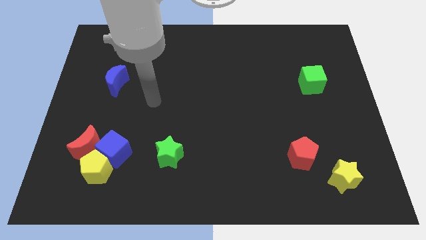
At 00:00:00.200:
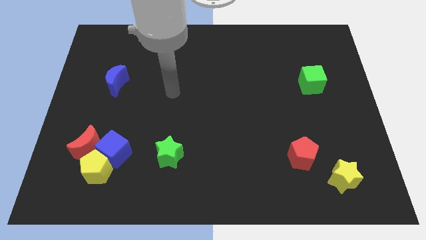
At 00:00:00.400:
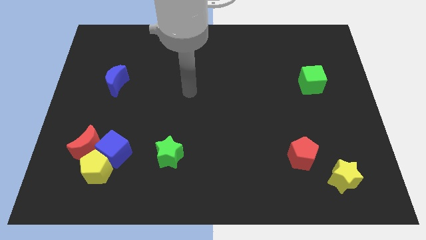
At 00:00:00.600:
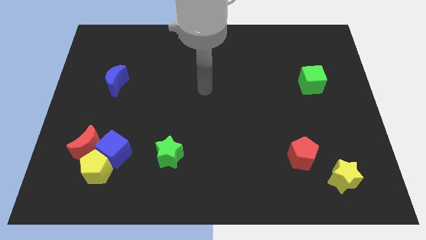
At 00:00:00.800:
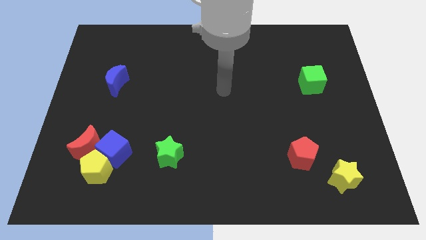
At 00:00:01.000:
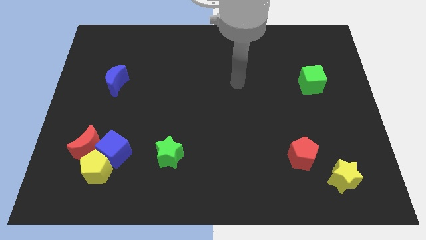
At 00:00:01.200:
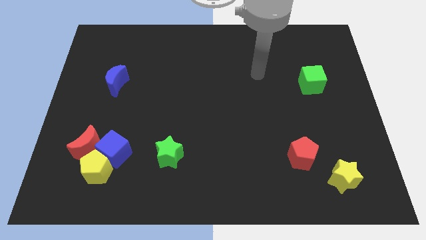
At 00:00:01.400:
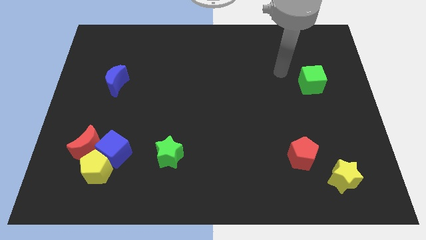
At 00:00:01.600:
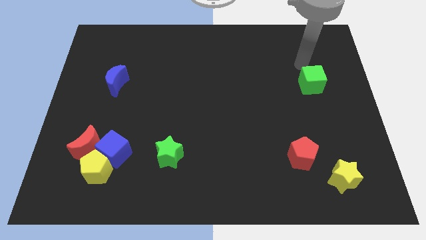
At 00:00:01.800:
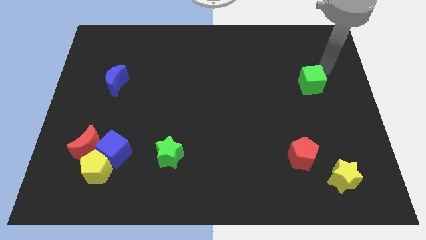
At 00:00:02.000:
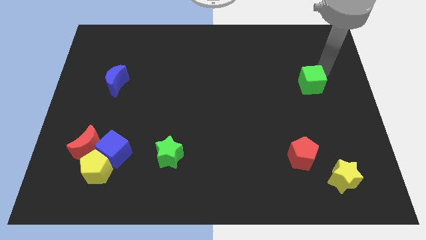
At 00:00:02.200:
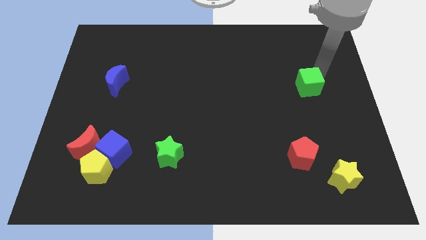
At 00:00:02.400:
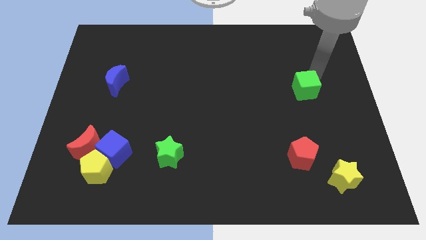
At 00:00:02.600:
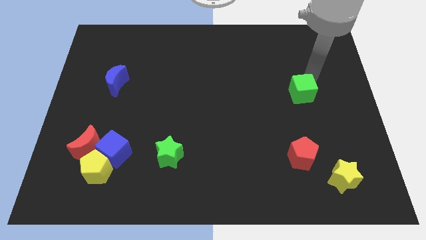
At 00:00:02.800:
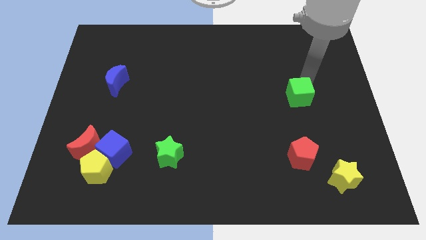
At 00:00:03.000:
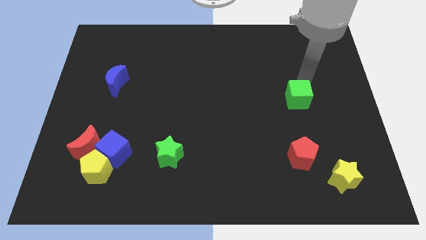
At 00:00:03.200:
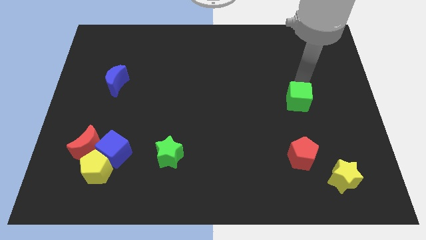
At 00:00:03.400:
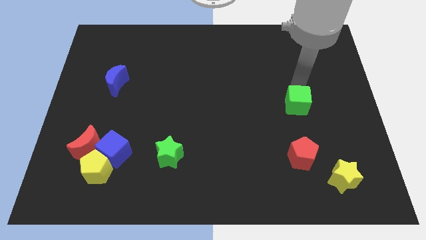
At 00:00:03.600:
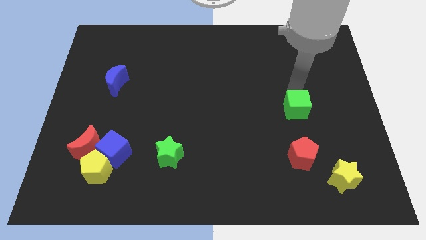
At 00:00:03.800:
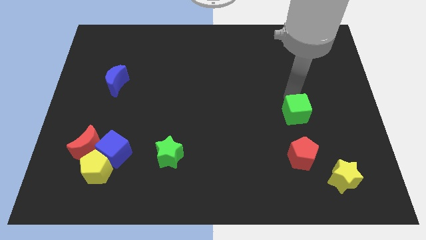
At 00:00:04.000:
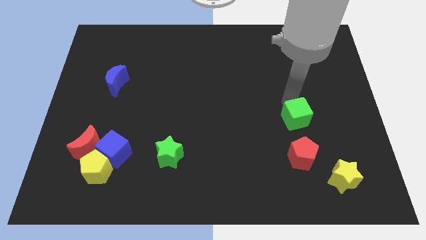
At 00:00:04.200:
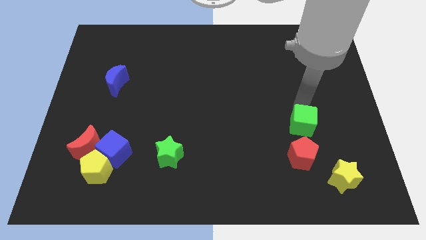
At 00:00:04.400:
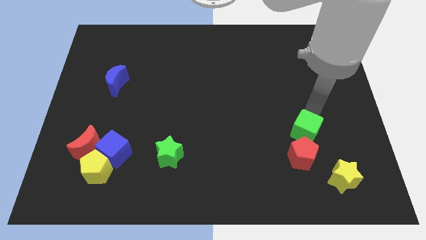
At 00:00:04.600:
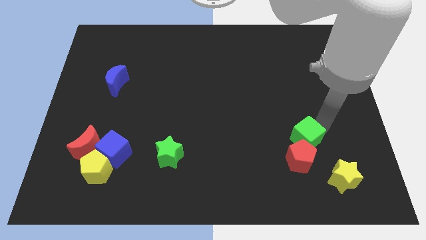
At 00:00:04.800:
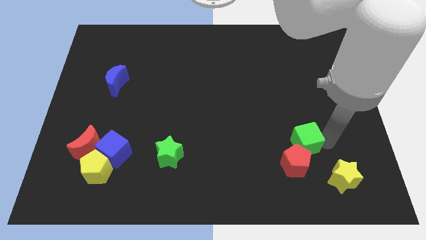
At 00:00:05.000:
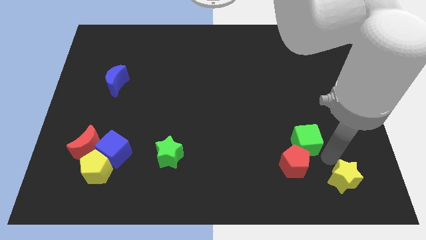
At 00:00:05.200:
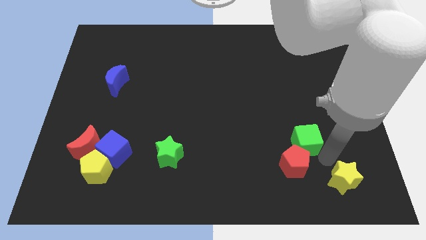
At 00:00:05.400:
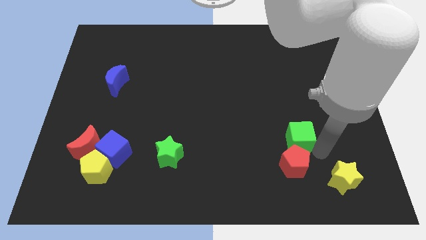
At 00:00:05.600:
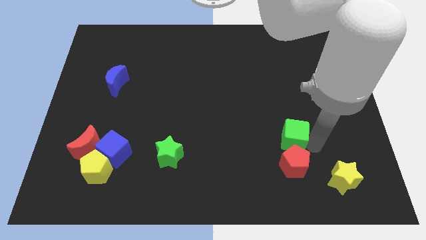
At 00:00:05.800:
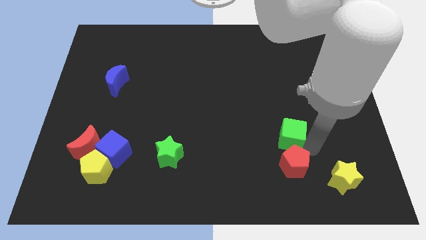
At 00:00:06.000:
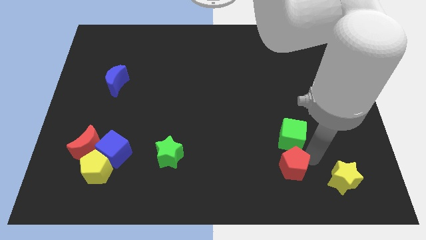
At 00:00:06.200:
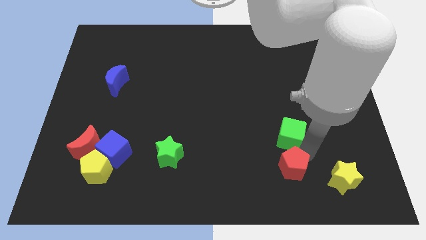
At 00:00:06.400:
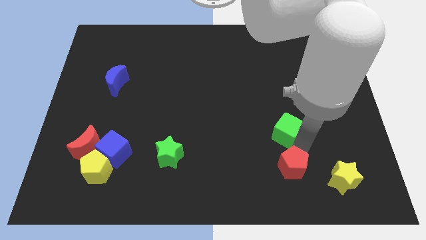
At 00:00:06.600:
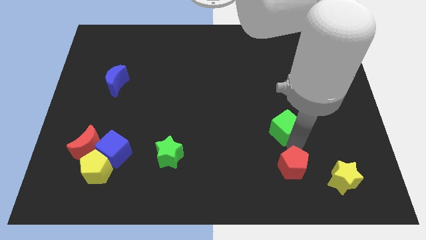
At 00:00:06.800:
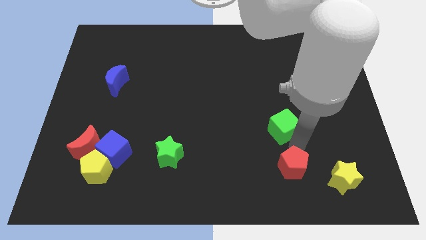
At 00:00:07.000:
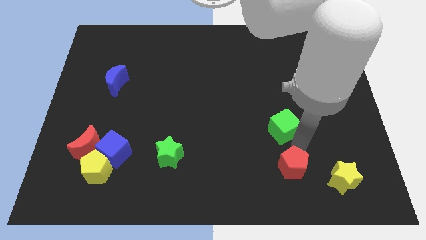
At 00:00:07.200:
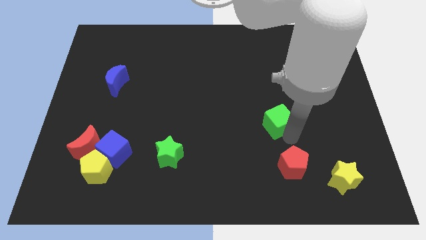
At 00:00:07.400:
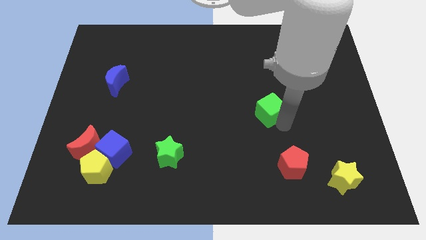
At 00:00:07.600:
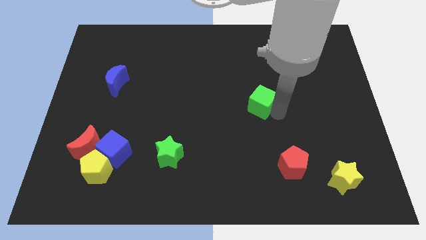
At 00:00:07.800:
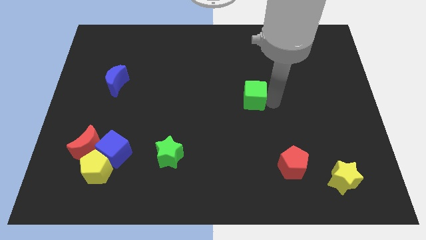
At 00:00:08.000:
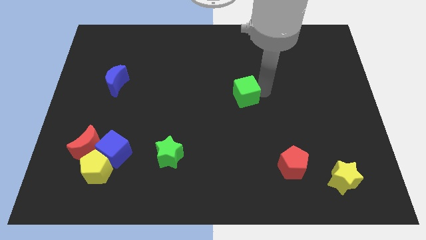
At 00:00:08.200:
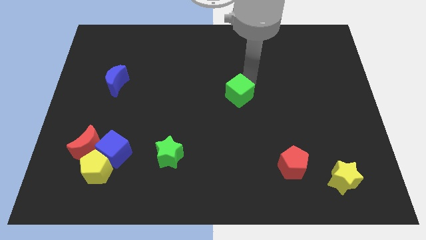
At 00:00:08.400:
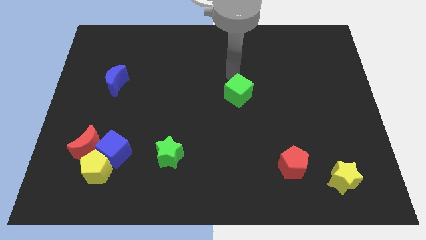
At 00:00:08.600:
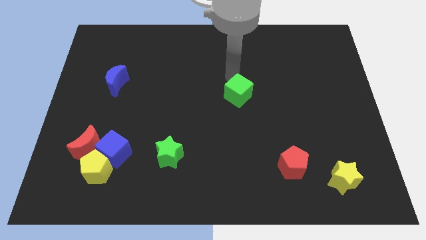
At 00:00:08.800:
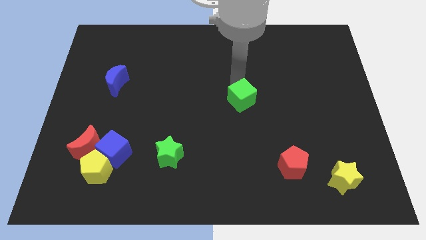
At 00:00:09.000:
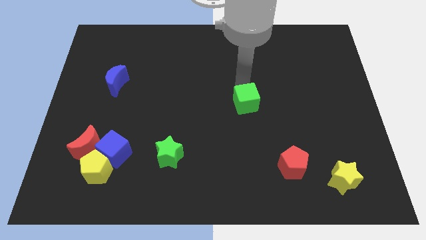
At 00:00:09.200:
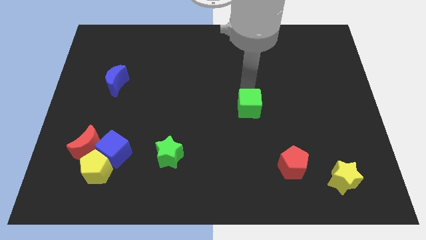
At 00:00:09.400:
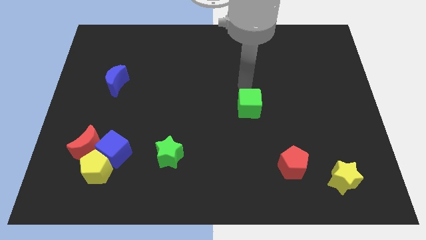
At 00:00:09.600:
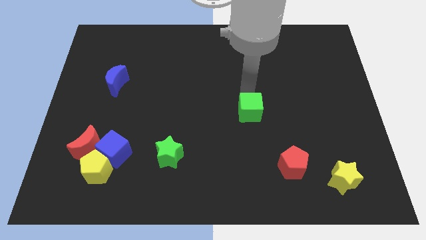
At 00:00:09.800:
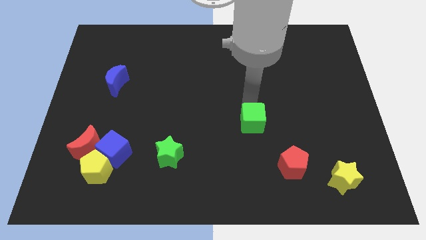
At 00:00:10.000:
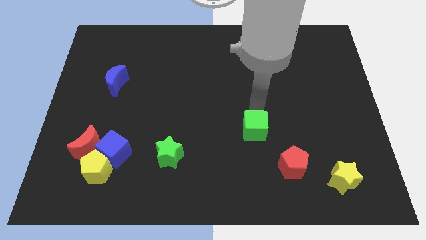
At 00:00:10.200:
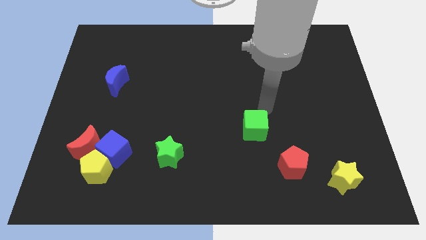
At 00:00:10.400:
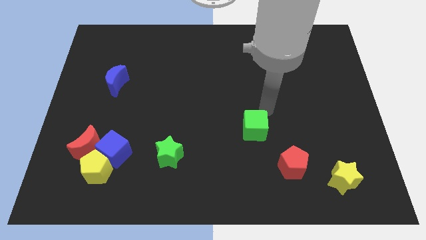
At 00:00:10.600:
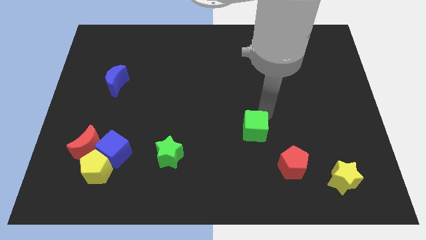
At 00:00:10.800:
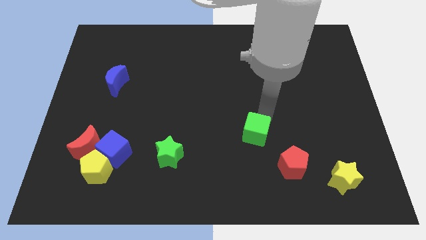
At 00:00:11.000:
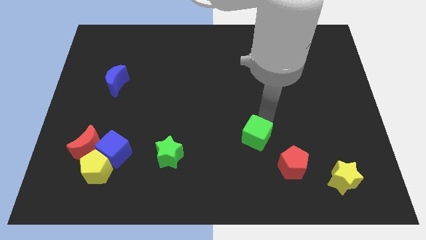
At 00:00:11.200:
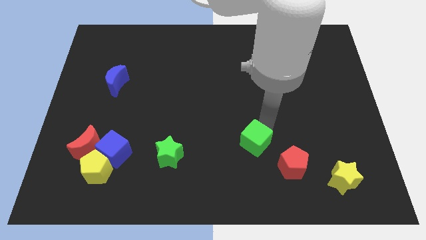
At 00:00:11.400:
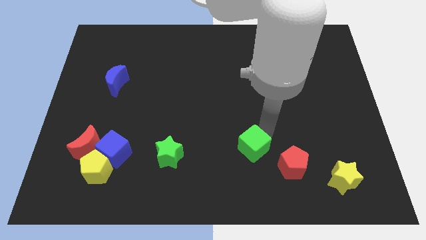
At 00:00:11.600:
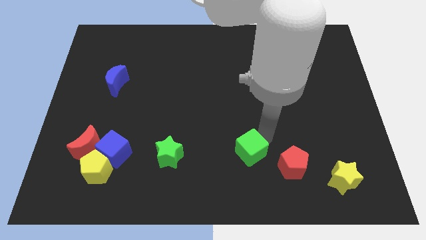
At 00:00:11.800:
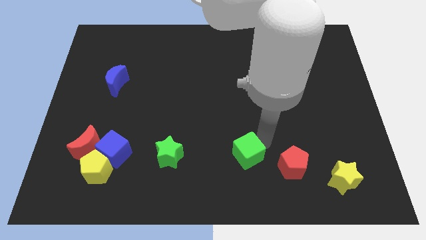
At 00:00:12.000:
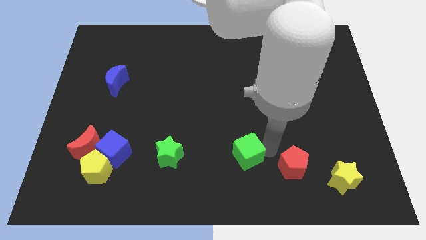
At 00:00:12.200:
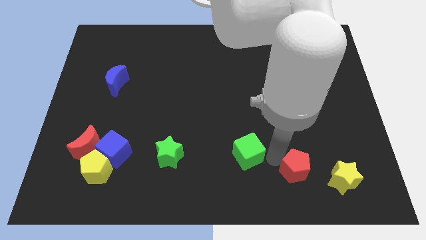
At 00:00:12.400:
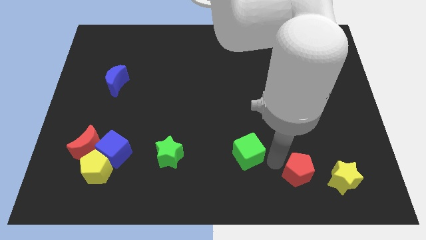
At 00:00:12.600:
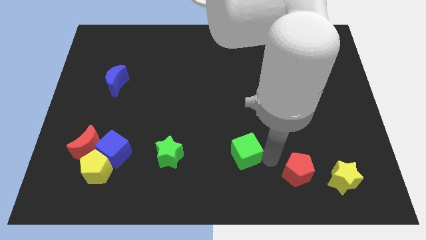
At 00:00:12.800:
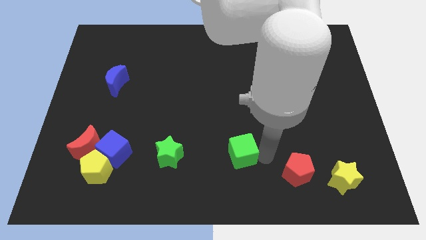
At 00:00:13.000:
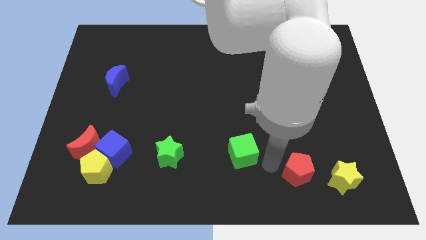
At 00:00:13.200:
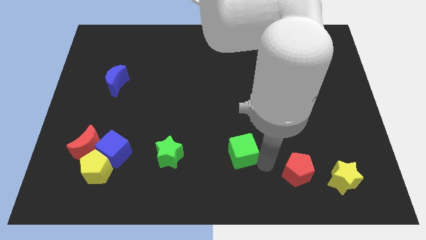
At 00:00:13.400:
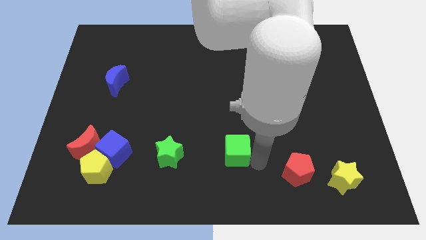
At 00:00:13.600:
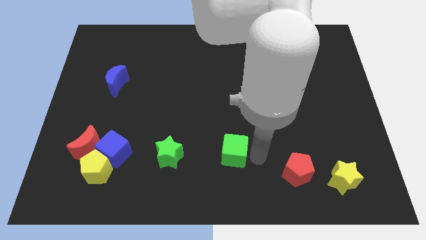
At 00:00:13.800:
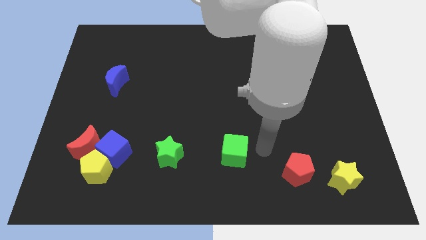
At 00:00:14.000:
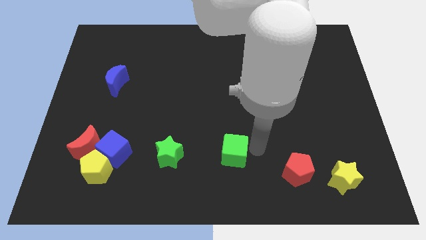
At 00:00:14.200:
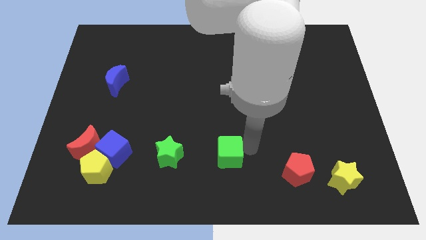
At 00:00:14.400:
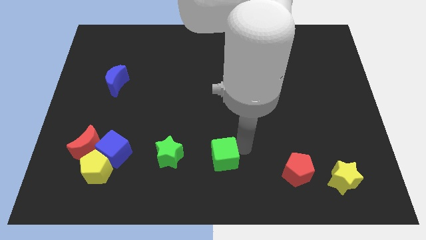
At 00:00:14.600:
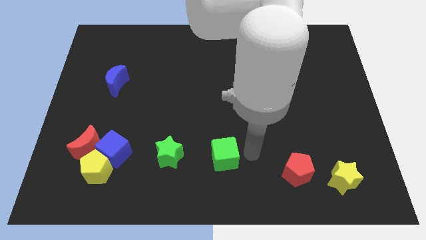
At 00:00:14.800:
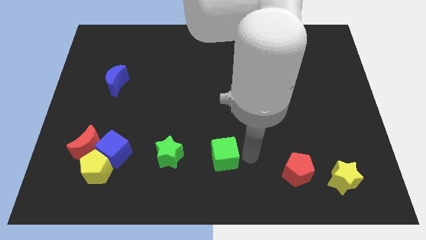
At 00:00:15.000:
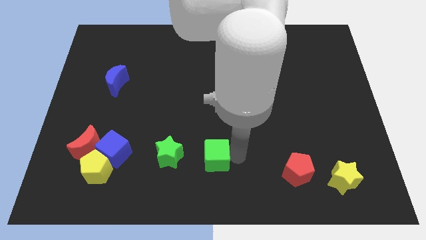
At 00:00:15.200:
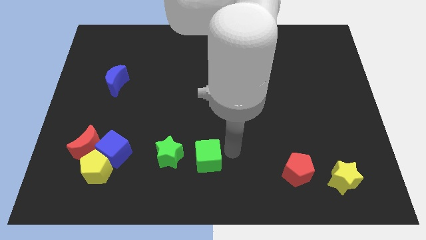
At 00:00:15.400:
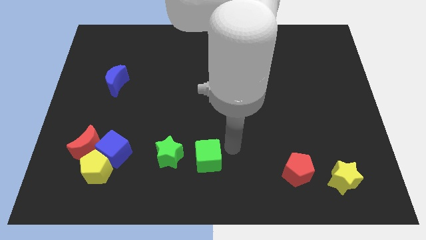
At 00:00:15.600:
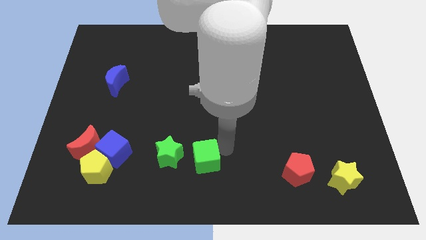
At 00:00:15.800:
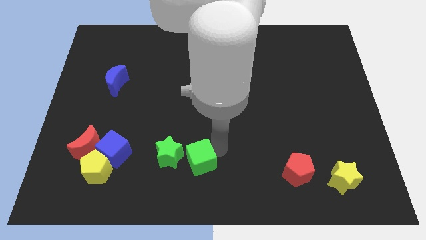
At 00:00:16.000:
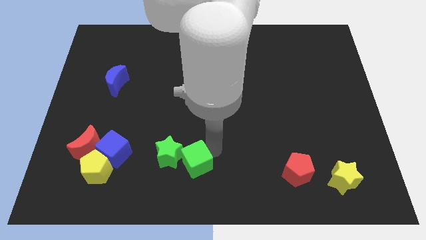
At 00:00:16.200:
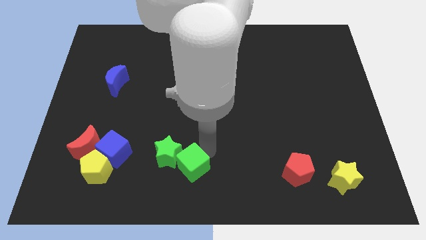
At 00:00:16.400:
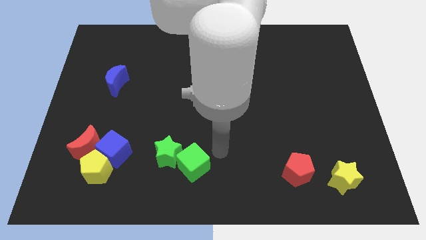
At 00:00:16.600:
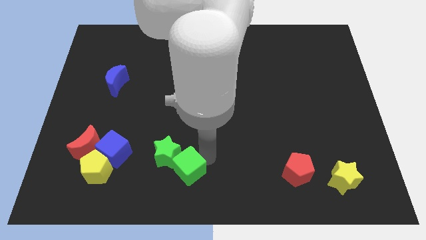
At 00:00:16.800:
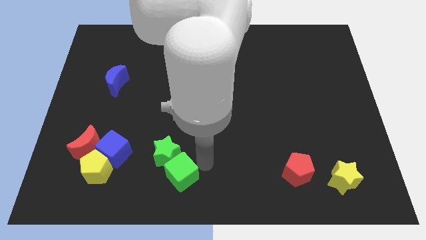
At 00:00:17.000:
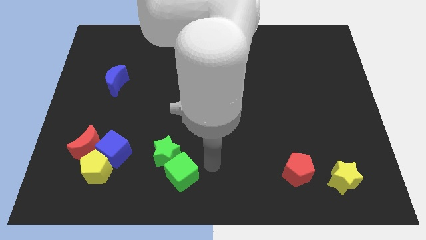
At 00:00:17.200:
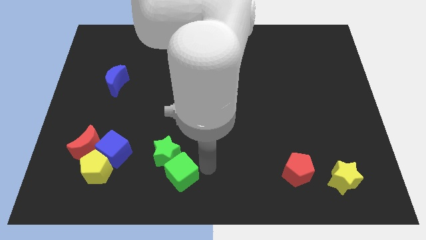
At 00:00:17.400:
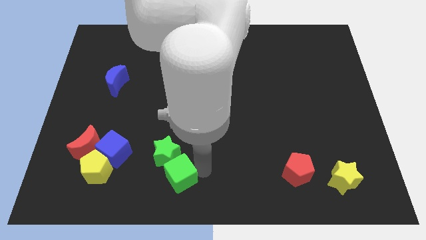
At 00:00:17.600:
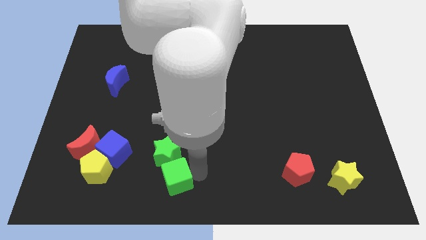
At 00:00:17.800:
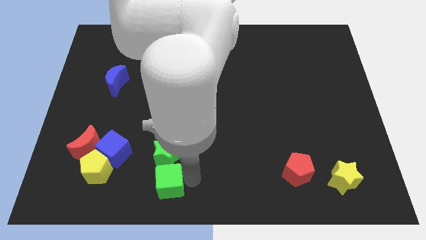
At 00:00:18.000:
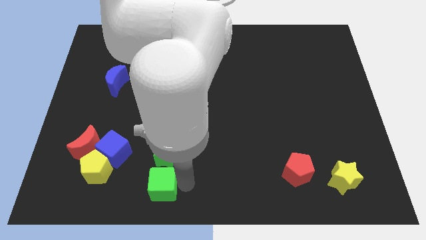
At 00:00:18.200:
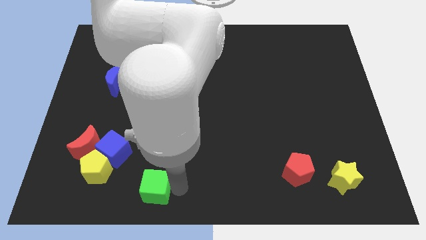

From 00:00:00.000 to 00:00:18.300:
put the green cube diagonally down and to the right of the blue cube
